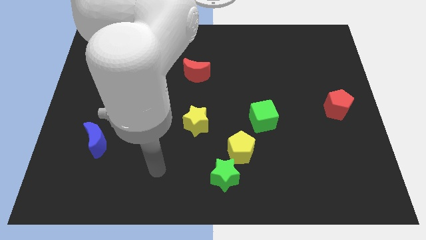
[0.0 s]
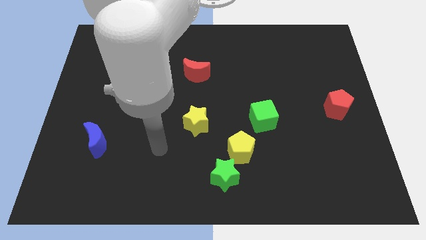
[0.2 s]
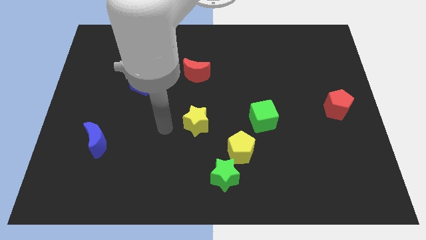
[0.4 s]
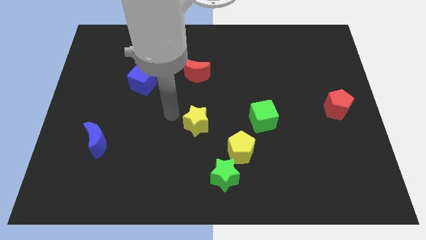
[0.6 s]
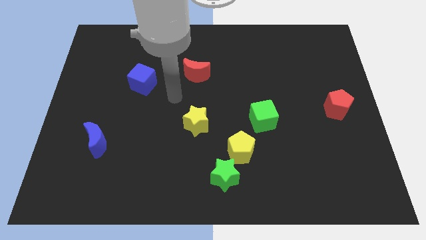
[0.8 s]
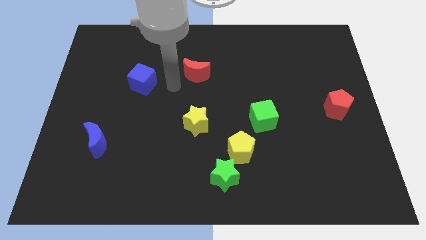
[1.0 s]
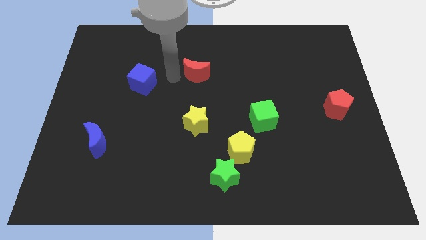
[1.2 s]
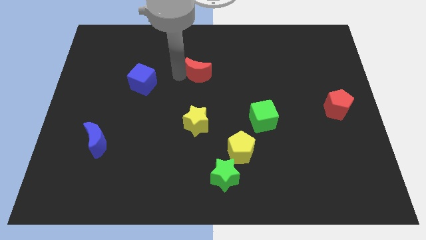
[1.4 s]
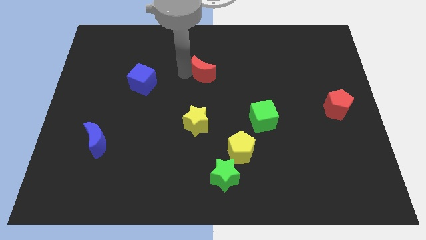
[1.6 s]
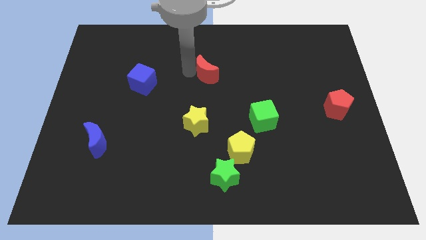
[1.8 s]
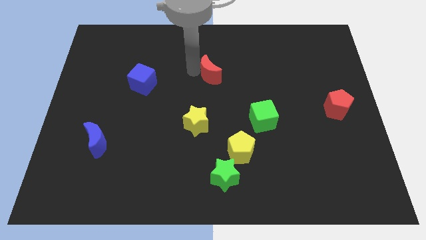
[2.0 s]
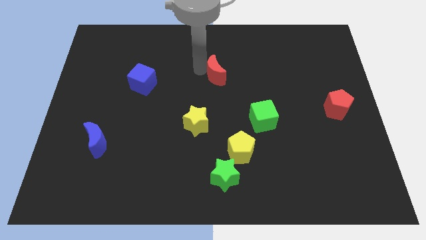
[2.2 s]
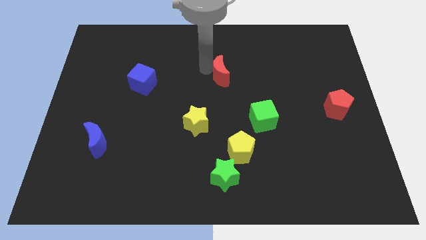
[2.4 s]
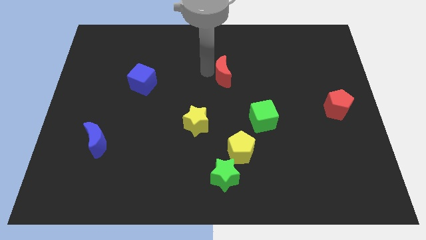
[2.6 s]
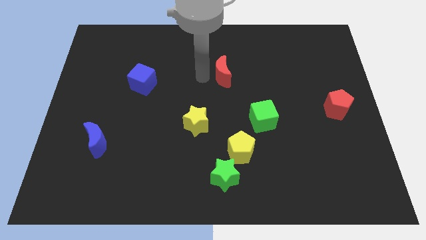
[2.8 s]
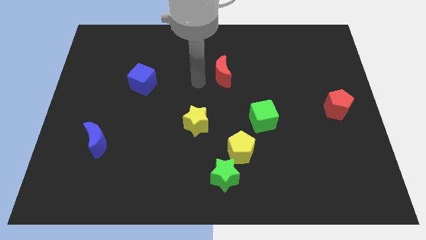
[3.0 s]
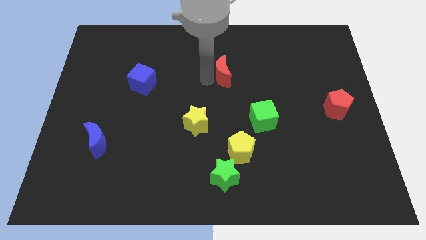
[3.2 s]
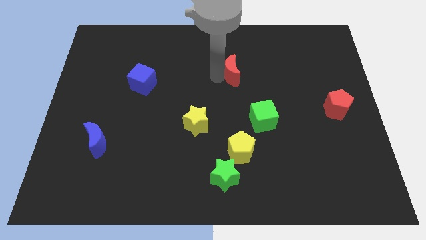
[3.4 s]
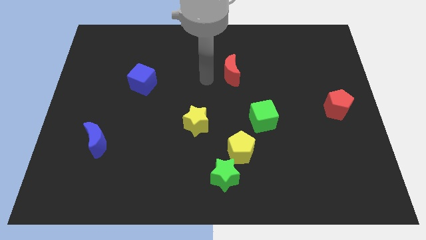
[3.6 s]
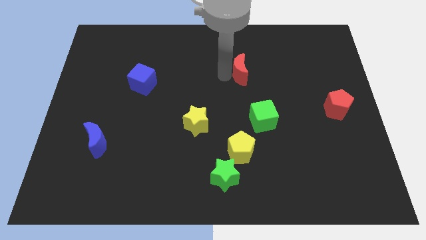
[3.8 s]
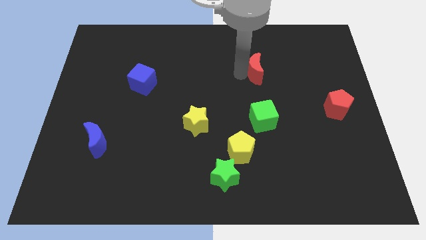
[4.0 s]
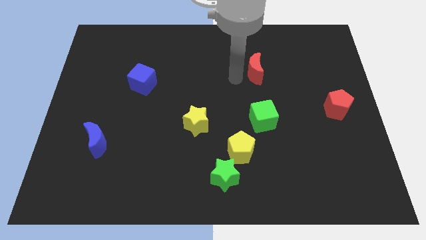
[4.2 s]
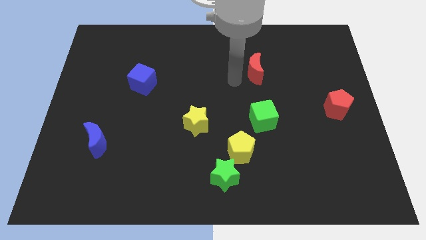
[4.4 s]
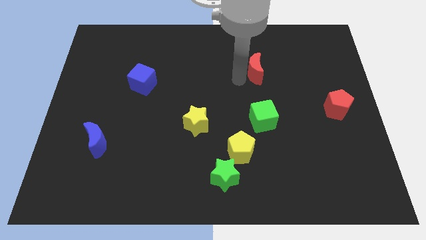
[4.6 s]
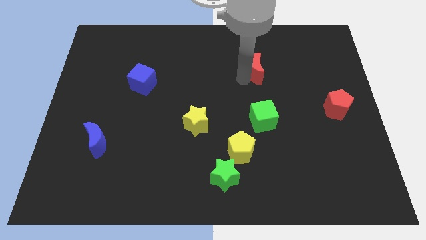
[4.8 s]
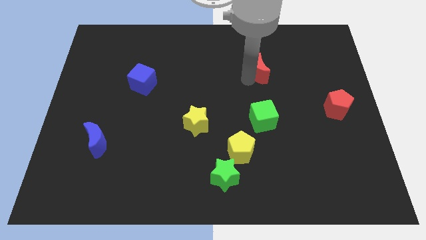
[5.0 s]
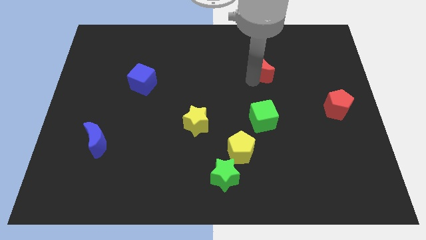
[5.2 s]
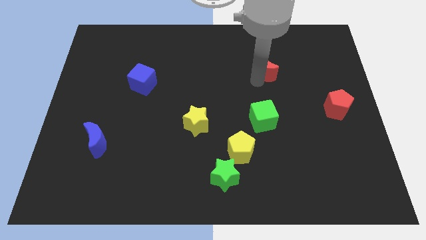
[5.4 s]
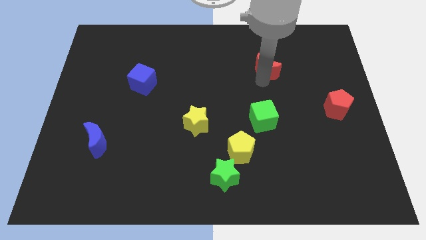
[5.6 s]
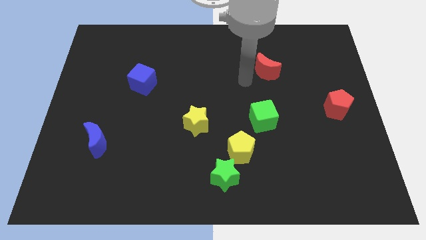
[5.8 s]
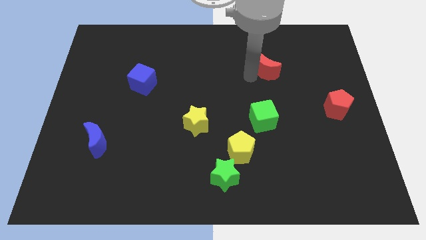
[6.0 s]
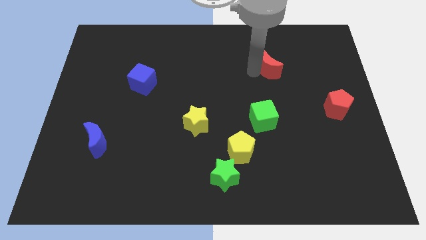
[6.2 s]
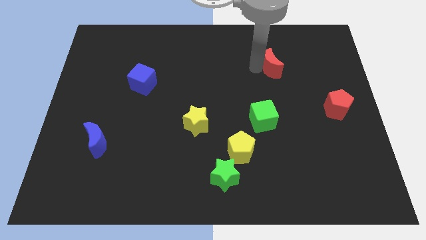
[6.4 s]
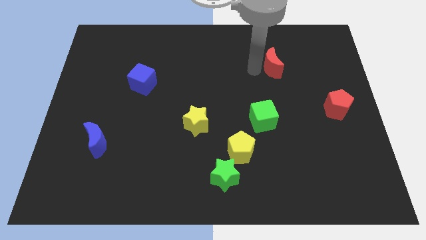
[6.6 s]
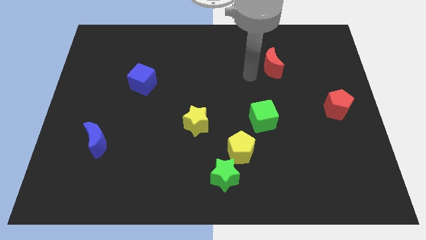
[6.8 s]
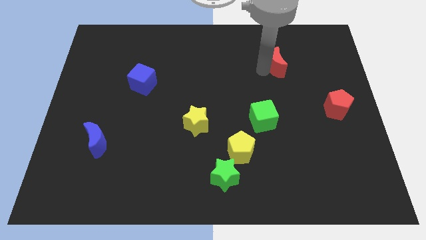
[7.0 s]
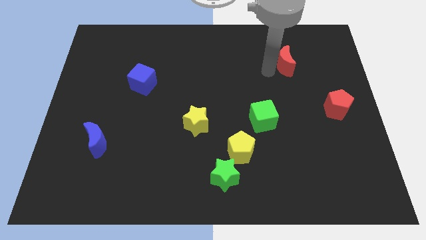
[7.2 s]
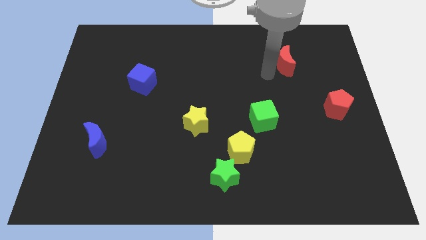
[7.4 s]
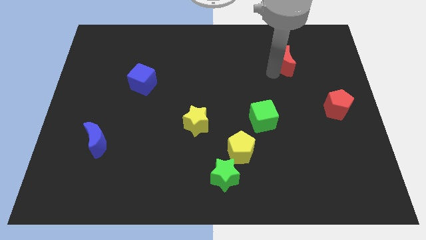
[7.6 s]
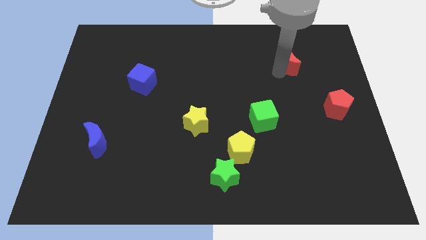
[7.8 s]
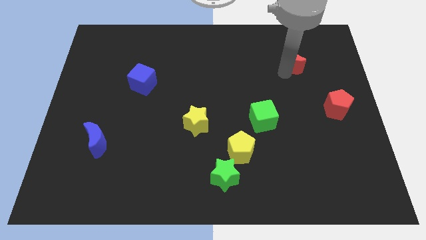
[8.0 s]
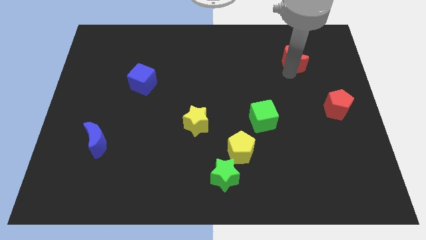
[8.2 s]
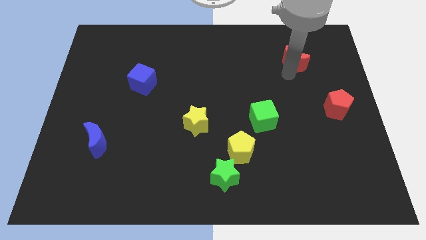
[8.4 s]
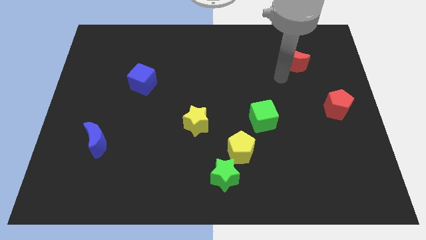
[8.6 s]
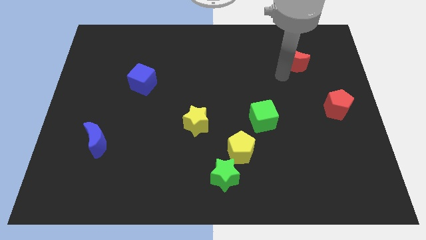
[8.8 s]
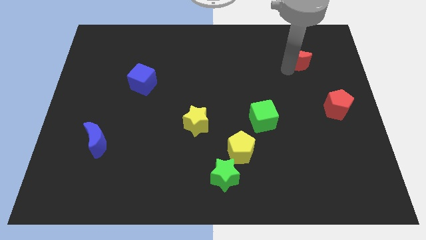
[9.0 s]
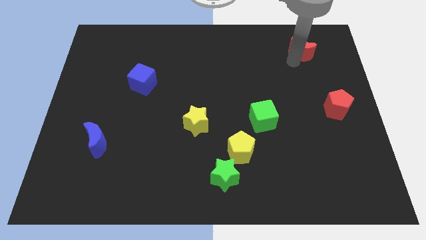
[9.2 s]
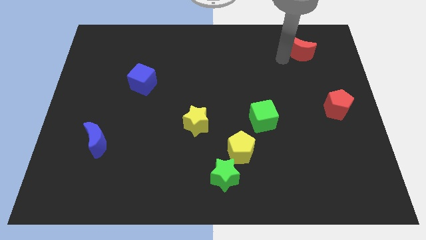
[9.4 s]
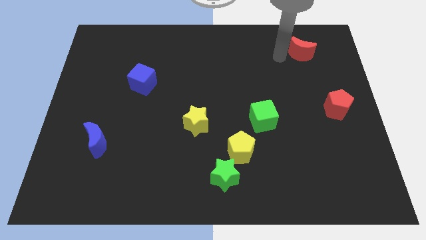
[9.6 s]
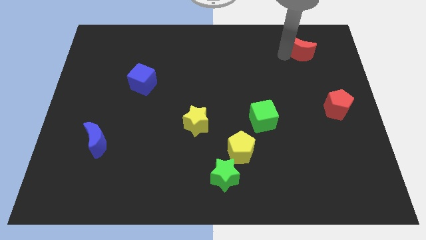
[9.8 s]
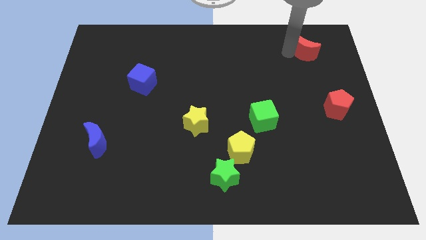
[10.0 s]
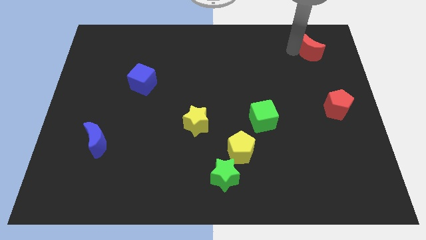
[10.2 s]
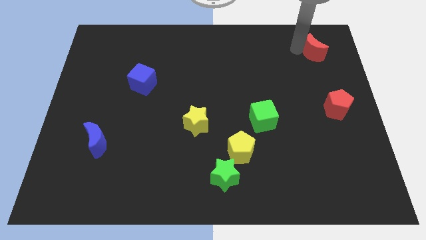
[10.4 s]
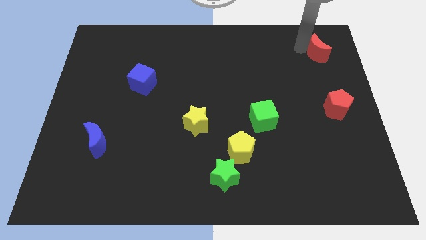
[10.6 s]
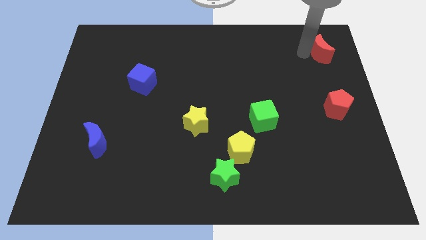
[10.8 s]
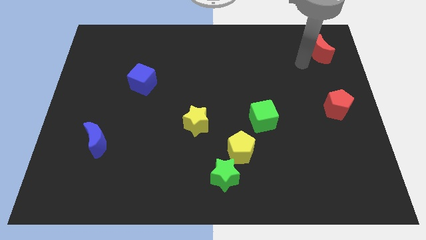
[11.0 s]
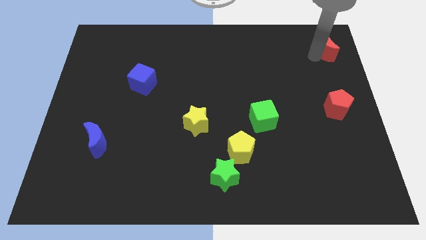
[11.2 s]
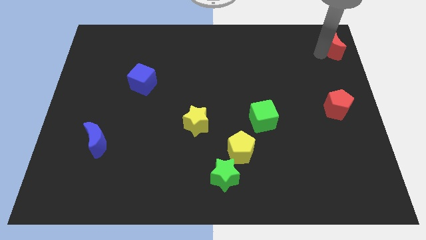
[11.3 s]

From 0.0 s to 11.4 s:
put the red moon to the top right corner

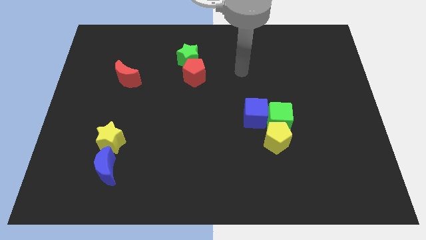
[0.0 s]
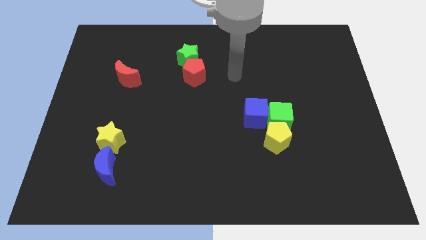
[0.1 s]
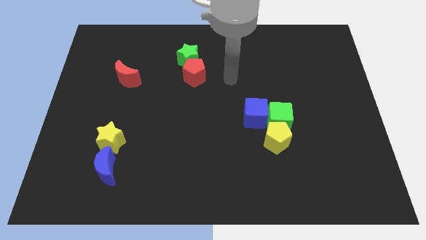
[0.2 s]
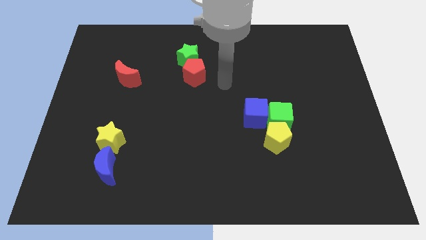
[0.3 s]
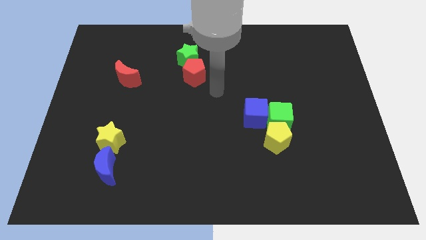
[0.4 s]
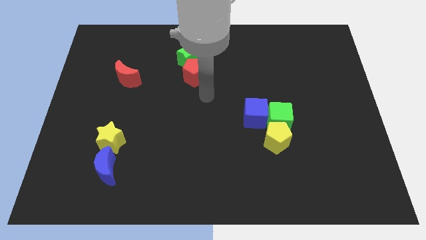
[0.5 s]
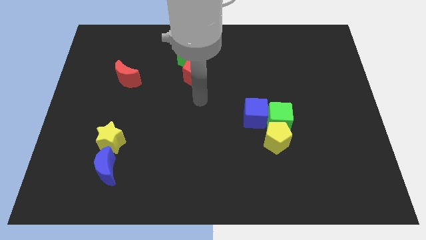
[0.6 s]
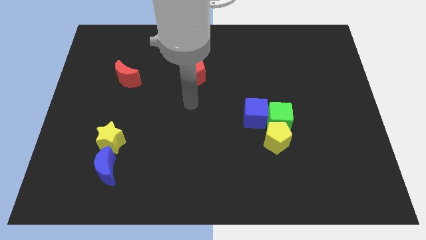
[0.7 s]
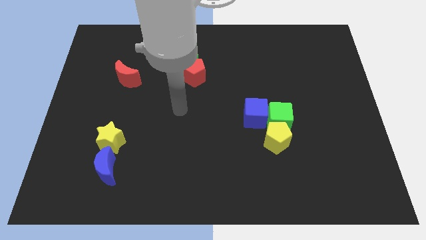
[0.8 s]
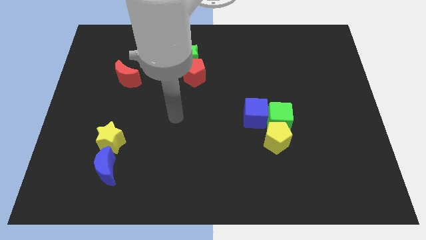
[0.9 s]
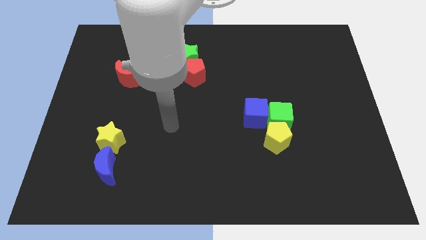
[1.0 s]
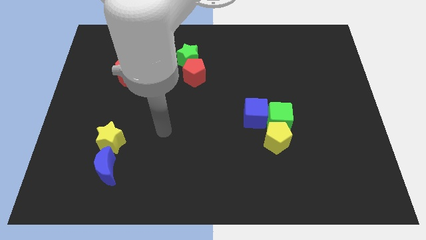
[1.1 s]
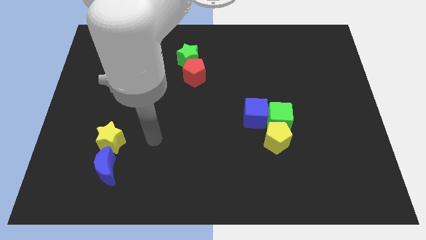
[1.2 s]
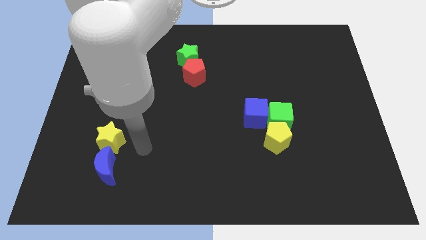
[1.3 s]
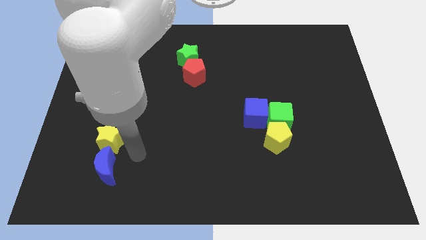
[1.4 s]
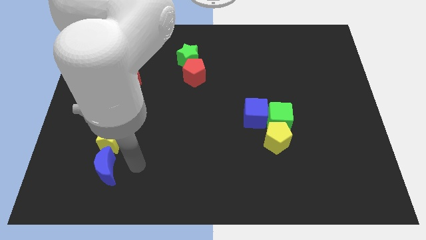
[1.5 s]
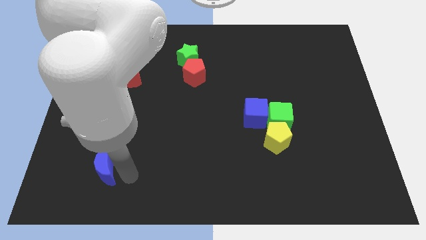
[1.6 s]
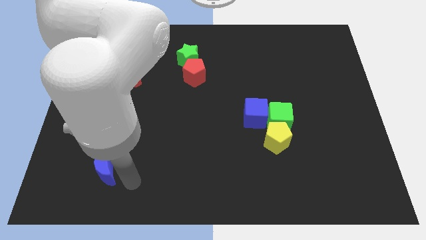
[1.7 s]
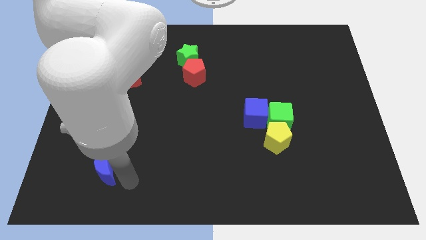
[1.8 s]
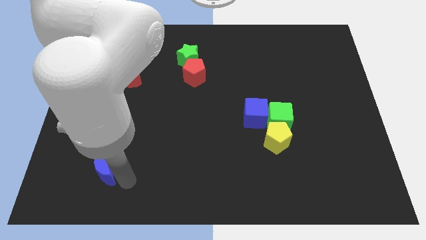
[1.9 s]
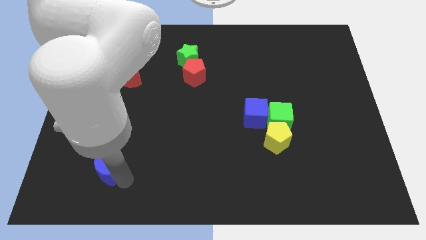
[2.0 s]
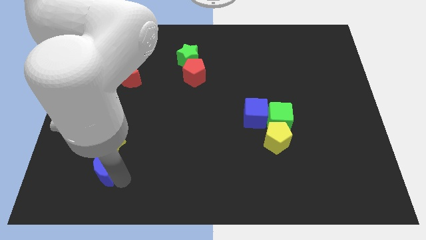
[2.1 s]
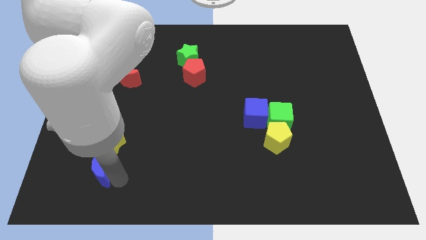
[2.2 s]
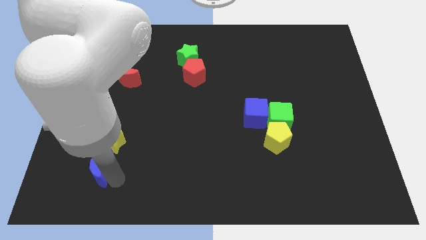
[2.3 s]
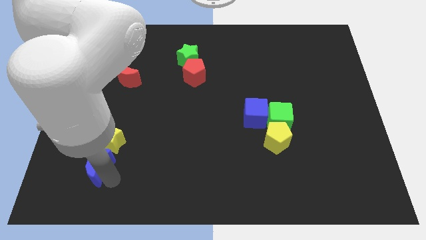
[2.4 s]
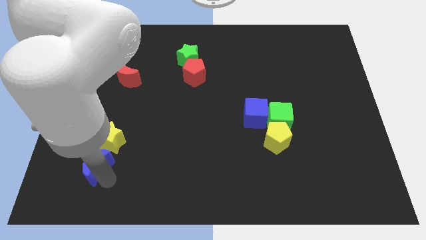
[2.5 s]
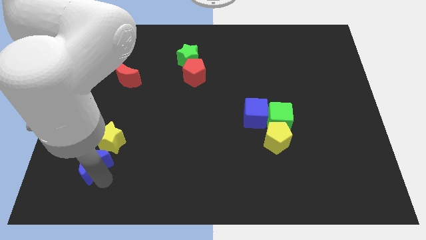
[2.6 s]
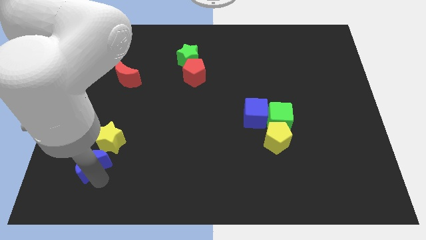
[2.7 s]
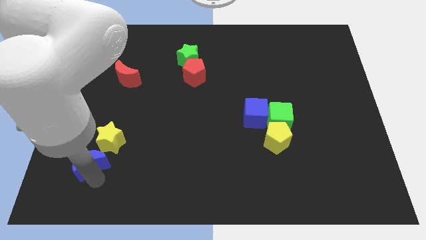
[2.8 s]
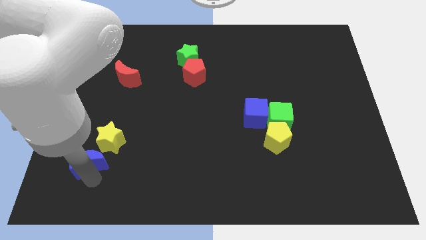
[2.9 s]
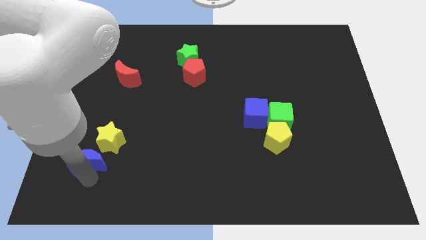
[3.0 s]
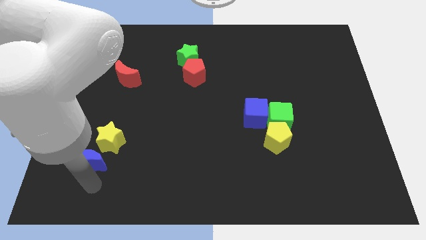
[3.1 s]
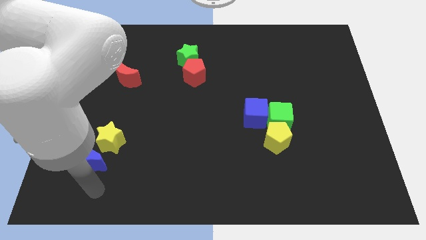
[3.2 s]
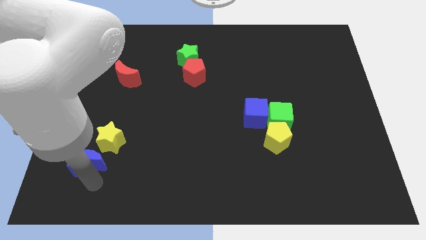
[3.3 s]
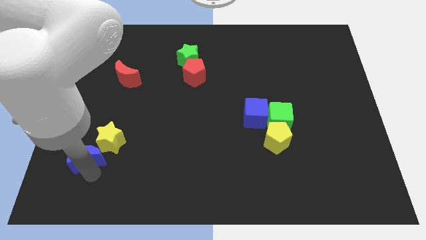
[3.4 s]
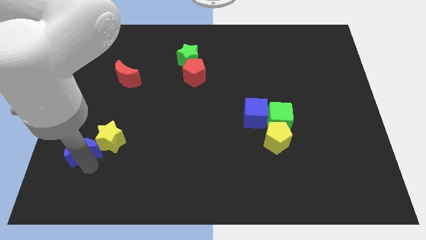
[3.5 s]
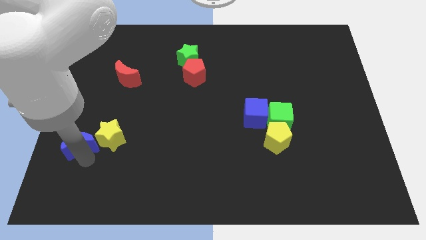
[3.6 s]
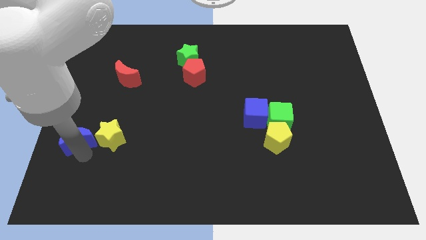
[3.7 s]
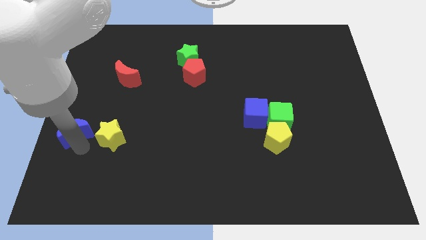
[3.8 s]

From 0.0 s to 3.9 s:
move the blue moon to the left side
